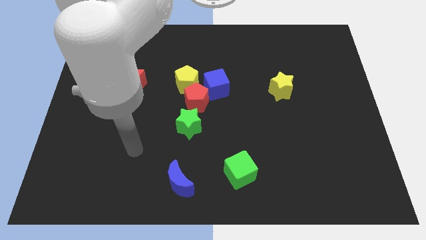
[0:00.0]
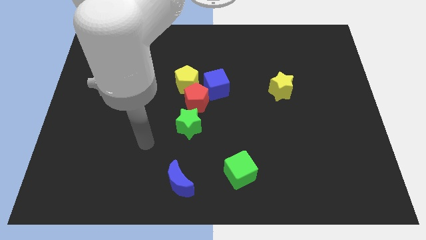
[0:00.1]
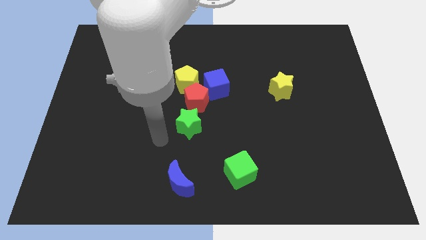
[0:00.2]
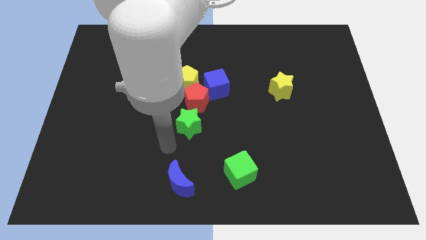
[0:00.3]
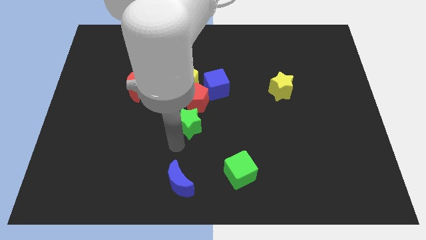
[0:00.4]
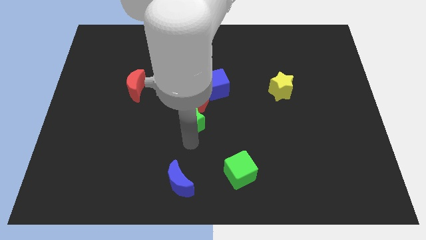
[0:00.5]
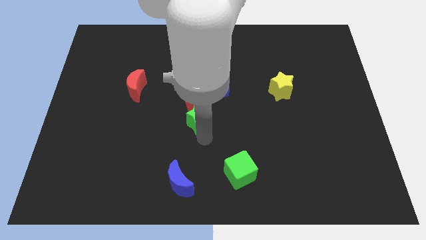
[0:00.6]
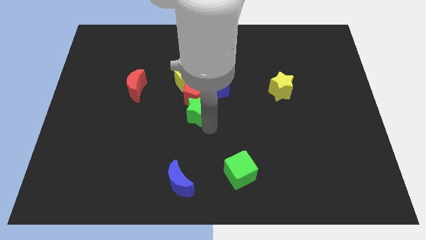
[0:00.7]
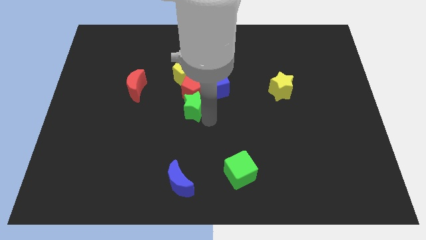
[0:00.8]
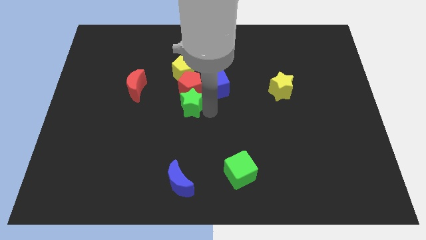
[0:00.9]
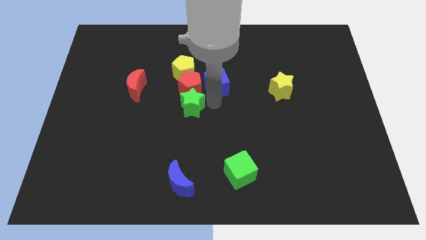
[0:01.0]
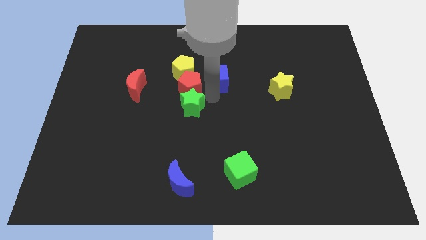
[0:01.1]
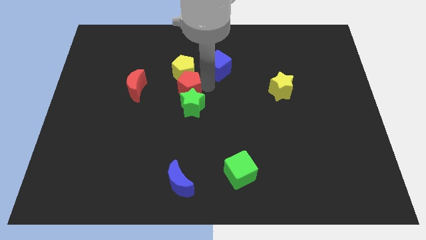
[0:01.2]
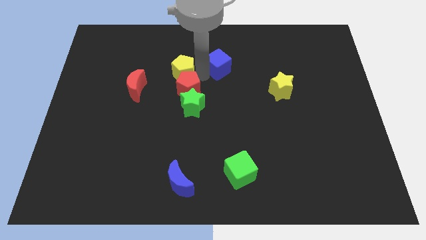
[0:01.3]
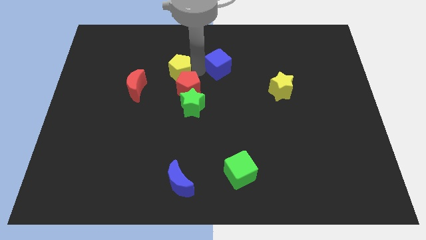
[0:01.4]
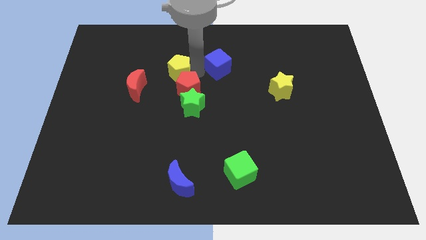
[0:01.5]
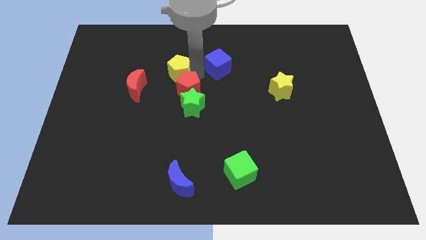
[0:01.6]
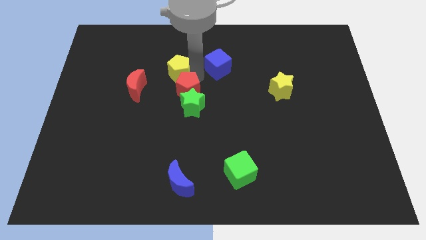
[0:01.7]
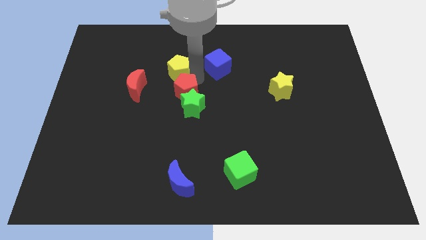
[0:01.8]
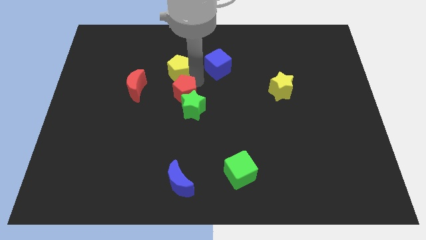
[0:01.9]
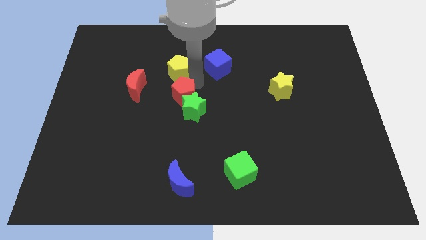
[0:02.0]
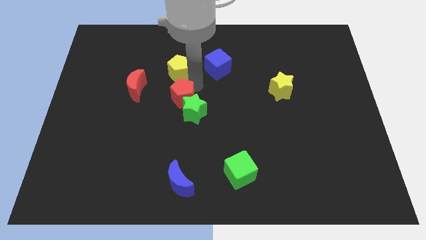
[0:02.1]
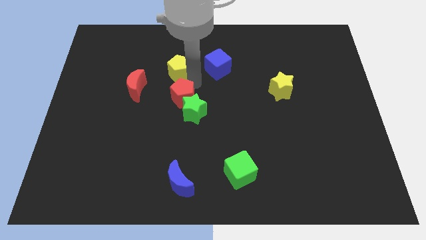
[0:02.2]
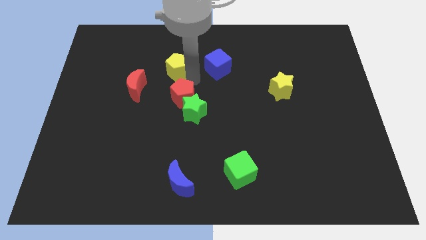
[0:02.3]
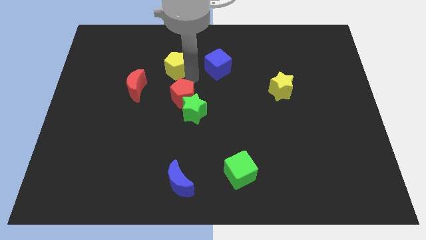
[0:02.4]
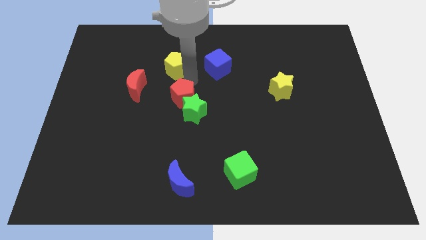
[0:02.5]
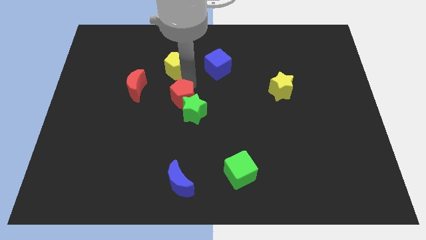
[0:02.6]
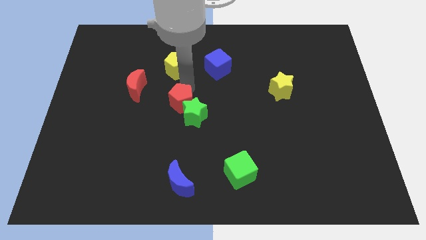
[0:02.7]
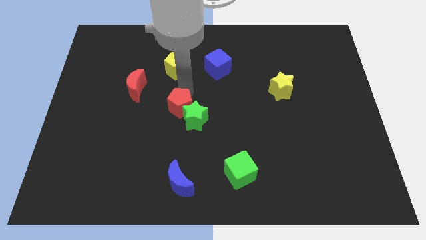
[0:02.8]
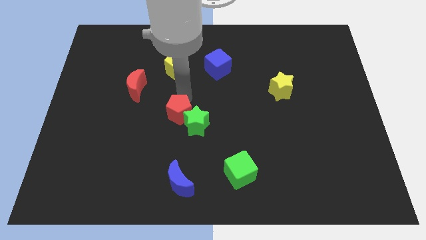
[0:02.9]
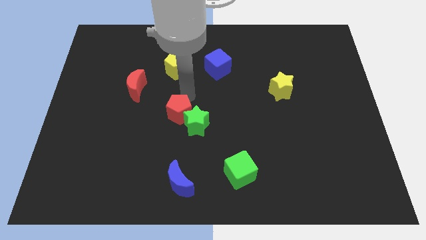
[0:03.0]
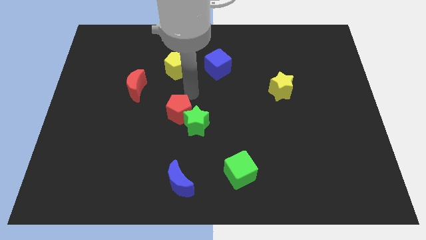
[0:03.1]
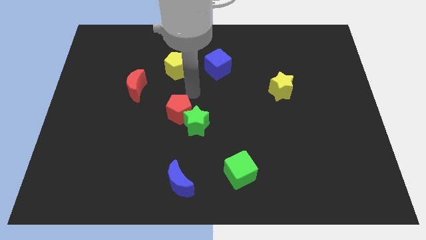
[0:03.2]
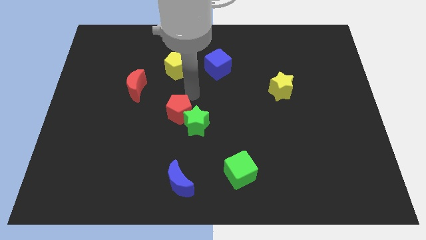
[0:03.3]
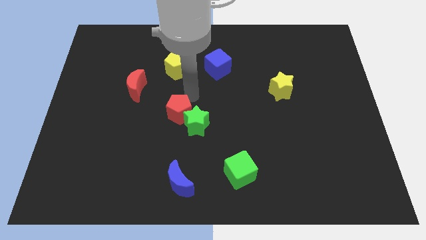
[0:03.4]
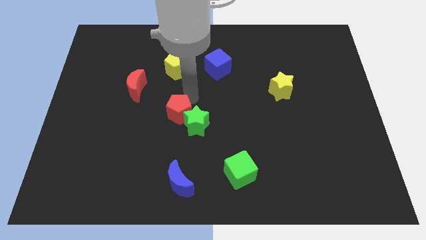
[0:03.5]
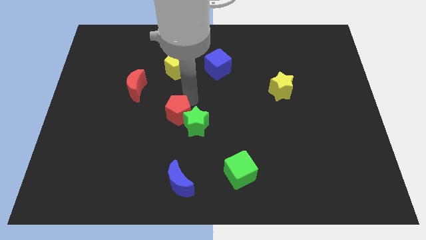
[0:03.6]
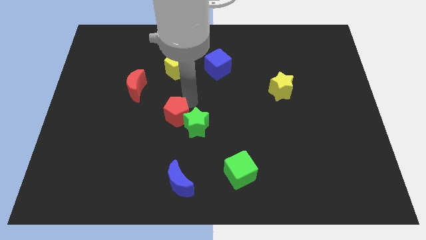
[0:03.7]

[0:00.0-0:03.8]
pull the red pentagon apart from the yellow pentagon, blue cube, and green star

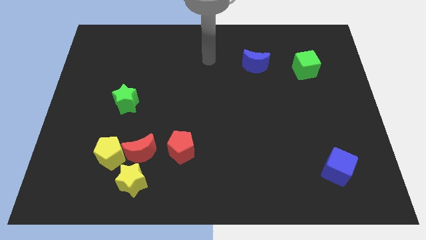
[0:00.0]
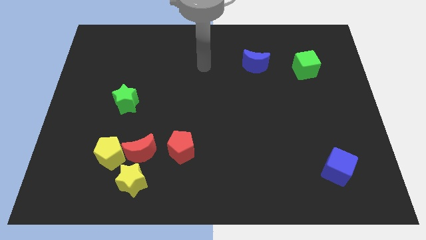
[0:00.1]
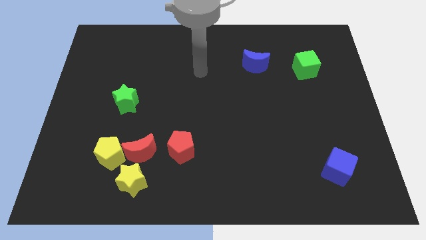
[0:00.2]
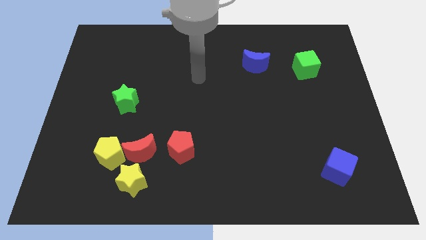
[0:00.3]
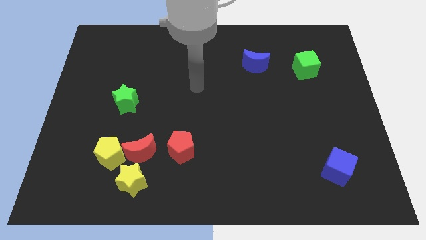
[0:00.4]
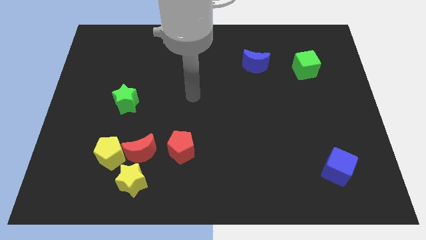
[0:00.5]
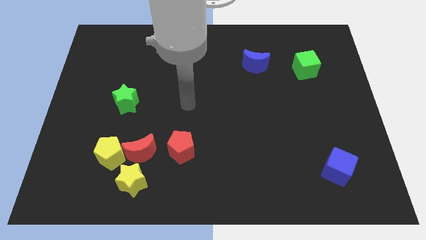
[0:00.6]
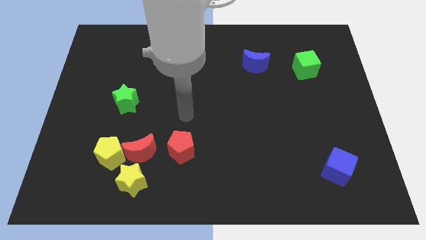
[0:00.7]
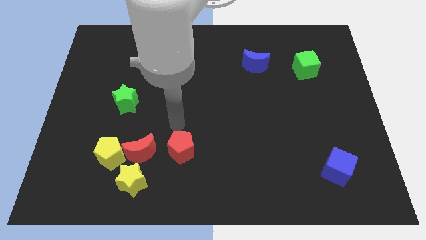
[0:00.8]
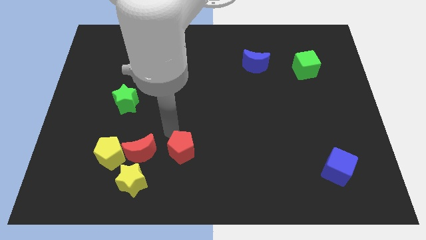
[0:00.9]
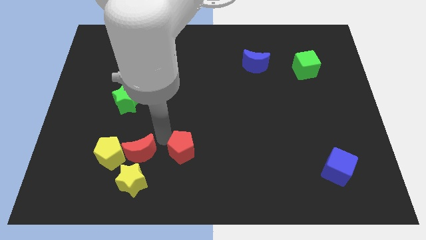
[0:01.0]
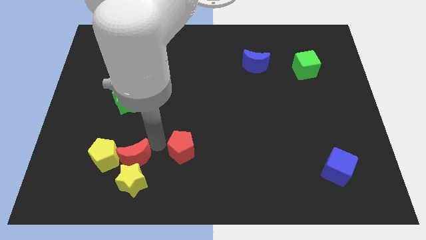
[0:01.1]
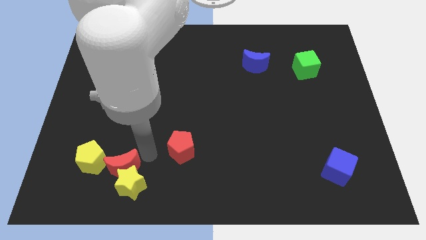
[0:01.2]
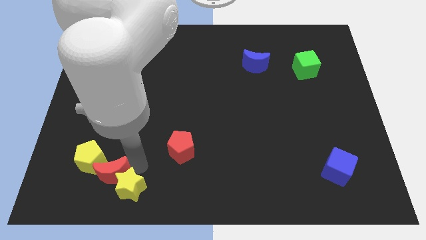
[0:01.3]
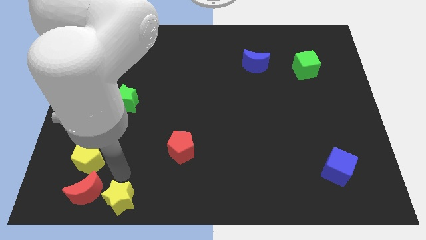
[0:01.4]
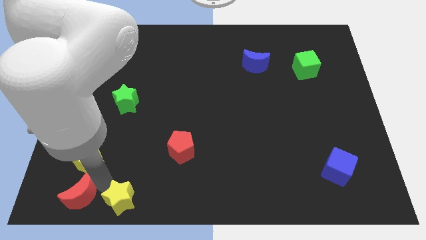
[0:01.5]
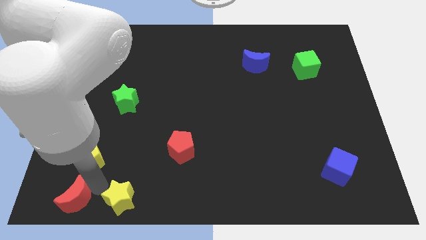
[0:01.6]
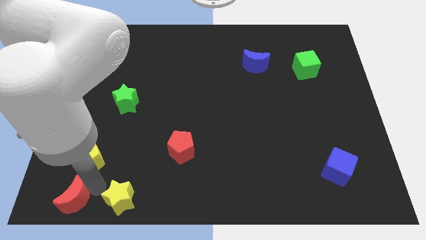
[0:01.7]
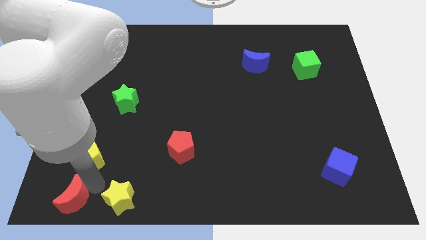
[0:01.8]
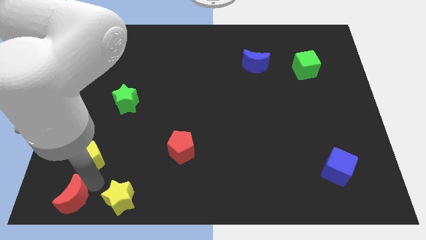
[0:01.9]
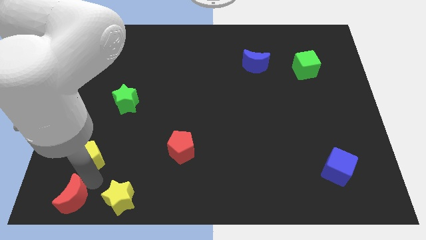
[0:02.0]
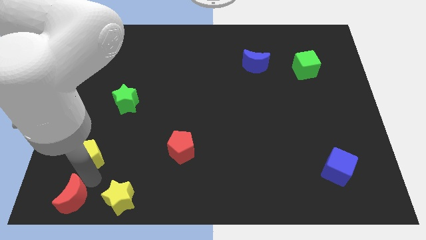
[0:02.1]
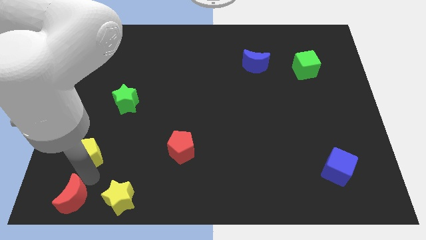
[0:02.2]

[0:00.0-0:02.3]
move the yellow pentagon away from the red moon and yellow star

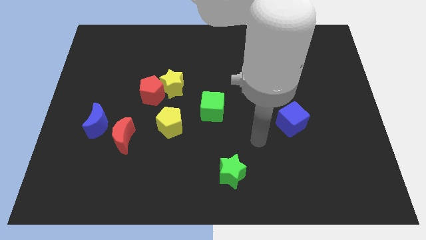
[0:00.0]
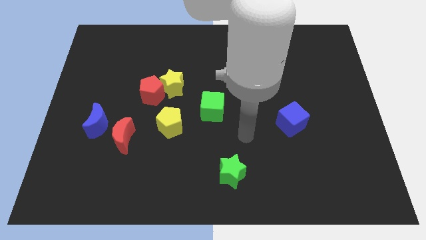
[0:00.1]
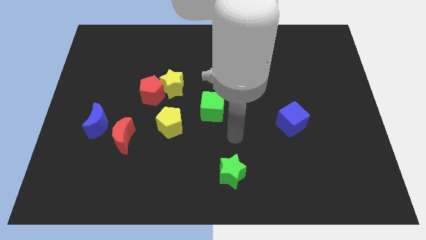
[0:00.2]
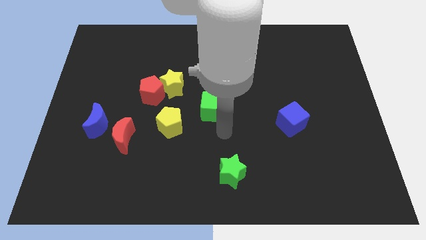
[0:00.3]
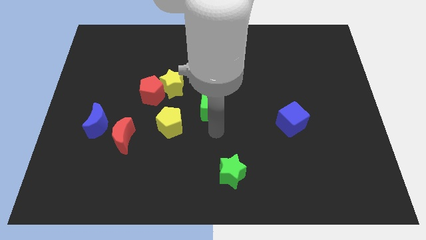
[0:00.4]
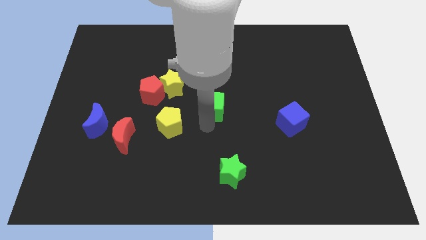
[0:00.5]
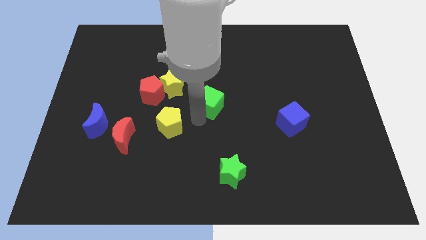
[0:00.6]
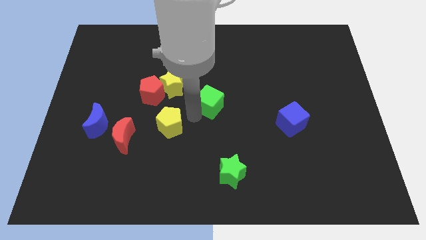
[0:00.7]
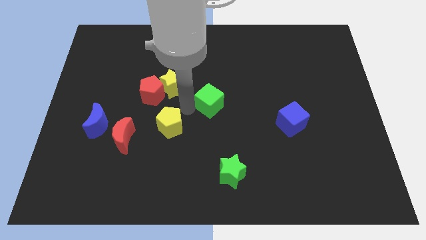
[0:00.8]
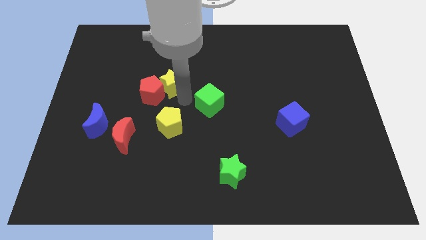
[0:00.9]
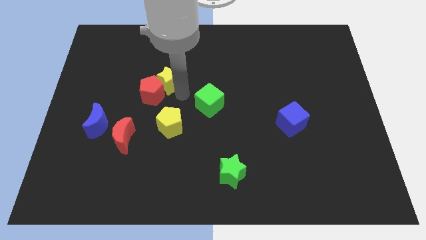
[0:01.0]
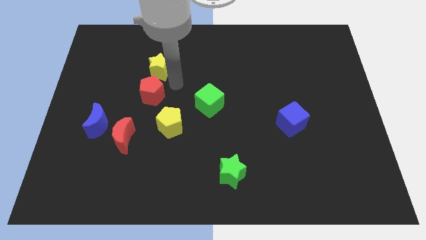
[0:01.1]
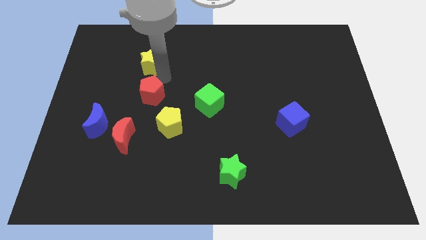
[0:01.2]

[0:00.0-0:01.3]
pull the red pentagon apart from the yellow star

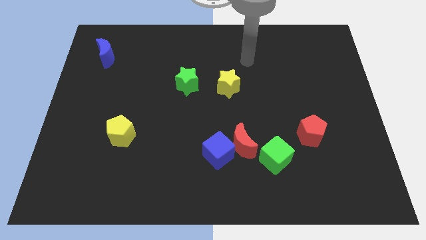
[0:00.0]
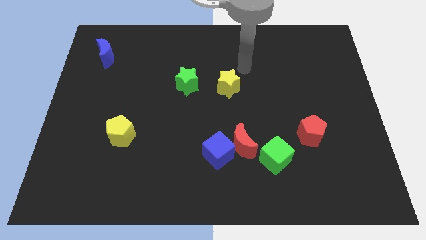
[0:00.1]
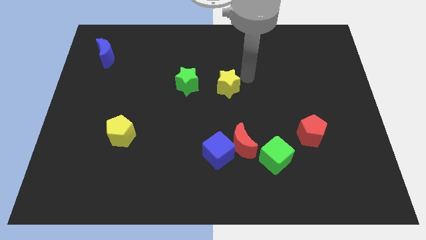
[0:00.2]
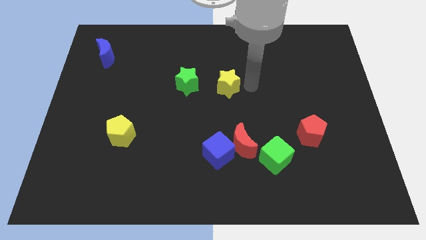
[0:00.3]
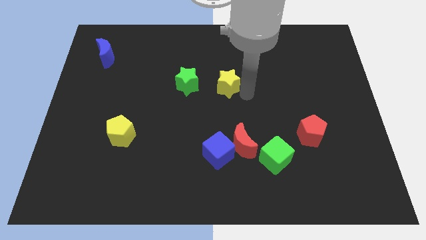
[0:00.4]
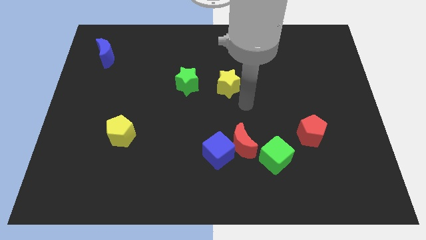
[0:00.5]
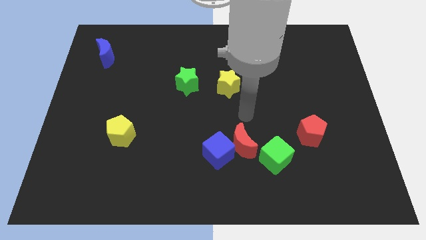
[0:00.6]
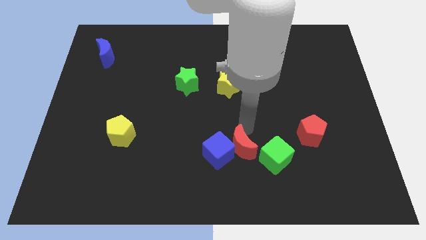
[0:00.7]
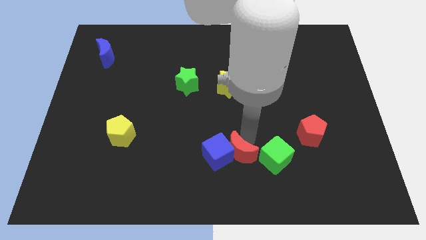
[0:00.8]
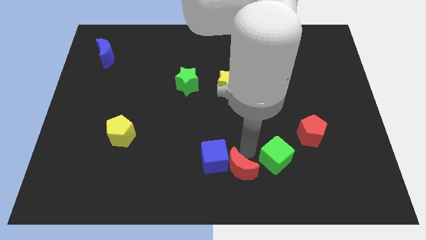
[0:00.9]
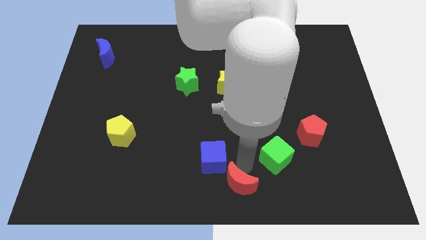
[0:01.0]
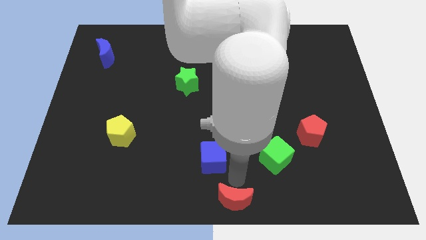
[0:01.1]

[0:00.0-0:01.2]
separate the blue cube from the red moon

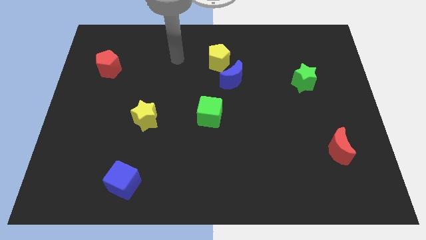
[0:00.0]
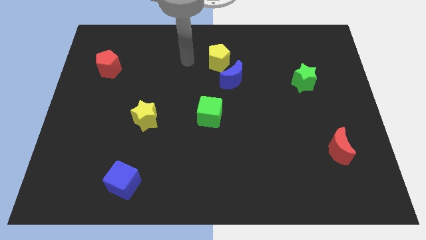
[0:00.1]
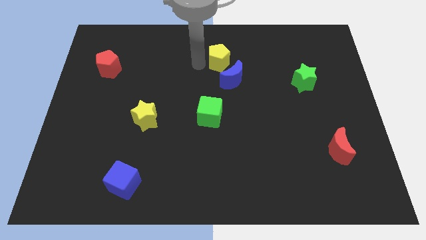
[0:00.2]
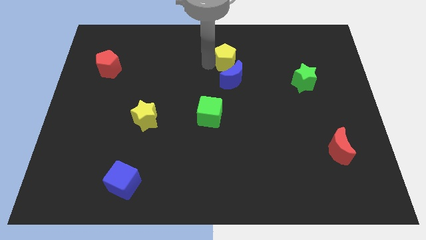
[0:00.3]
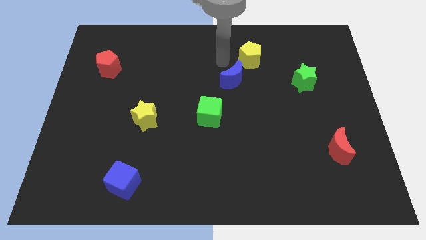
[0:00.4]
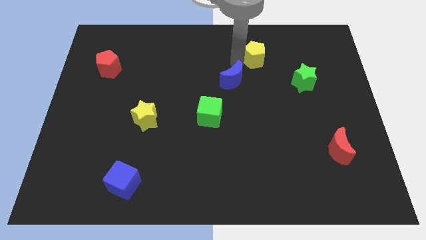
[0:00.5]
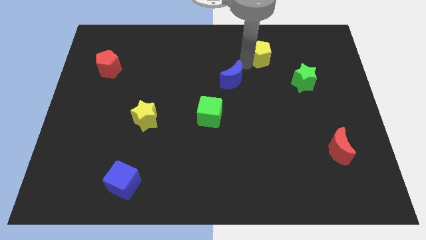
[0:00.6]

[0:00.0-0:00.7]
separate the blue moon from the yellow pentagon

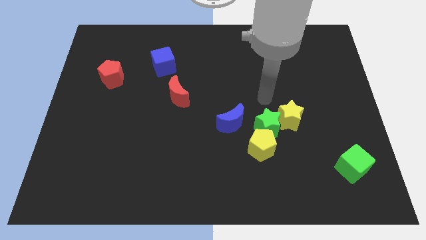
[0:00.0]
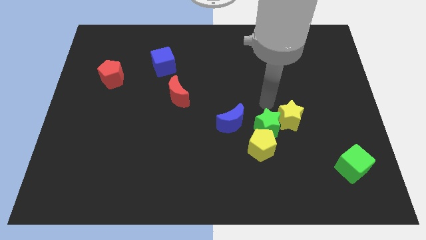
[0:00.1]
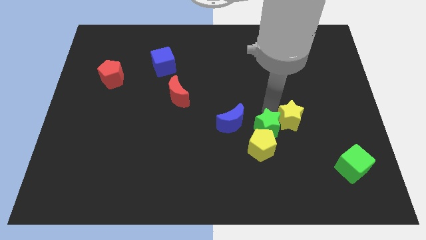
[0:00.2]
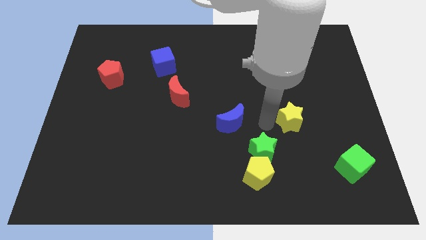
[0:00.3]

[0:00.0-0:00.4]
move the yellow star away from the green star
